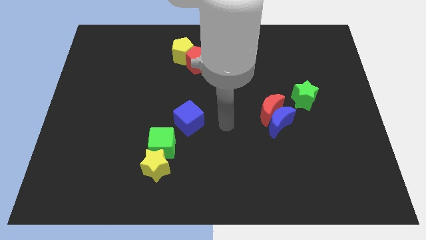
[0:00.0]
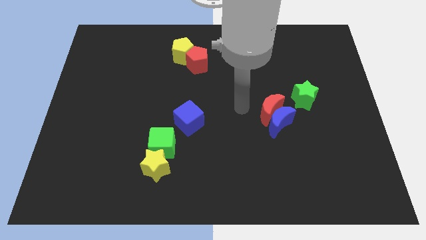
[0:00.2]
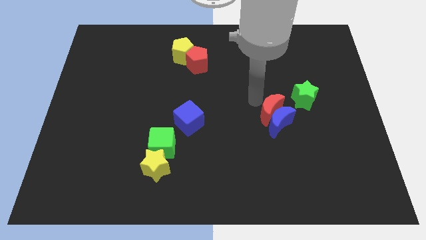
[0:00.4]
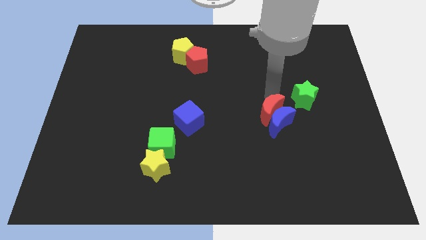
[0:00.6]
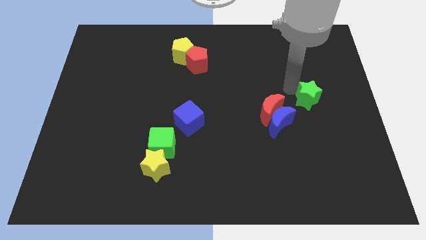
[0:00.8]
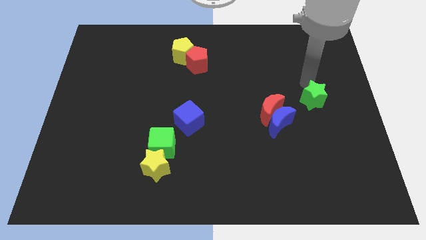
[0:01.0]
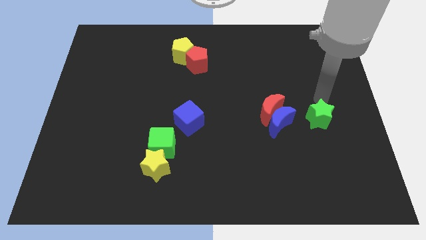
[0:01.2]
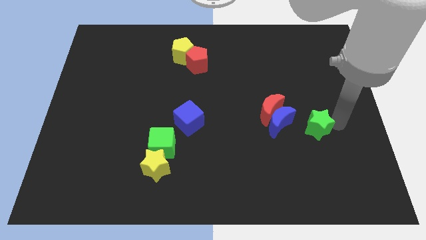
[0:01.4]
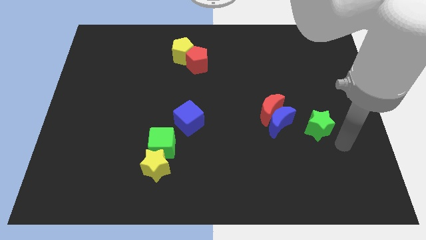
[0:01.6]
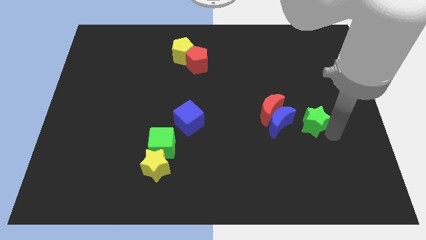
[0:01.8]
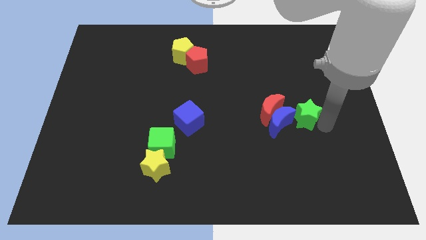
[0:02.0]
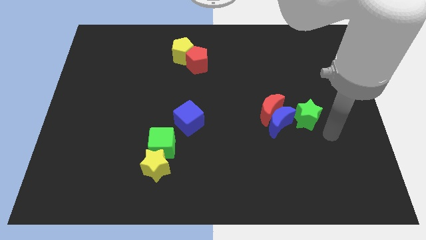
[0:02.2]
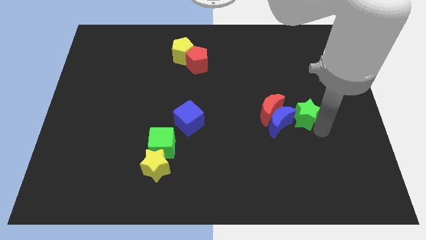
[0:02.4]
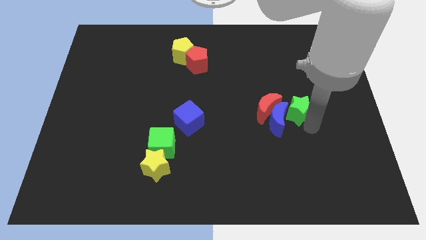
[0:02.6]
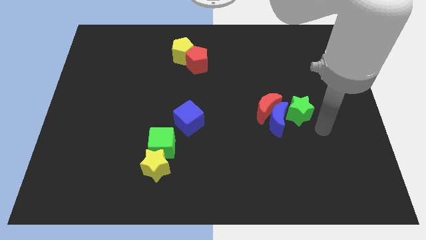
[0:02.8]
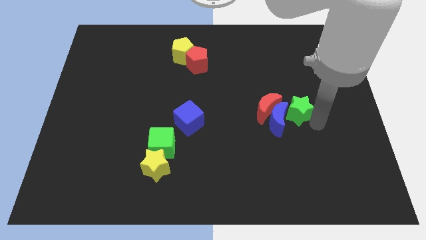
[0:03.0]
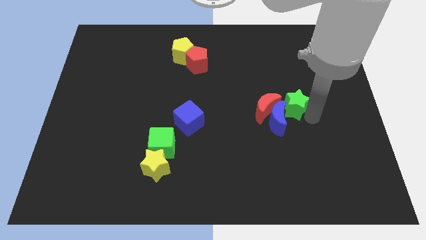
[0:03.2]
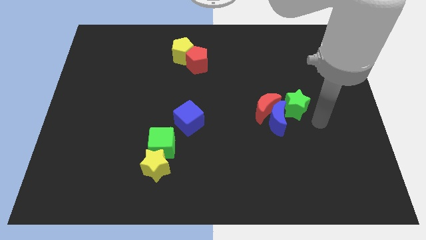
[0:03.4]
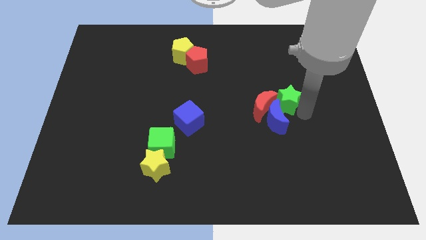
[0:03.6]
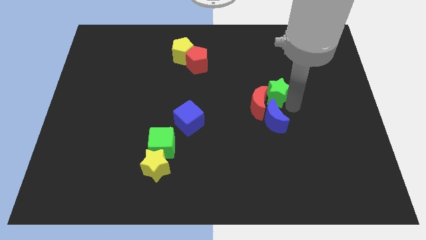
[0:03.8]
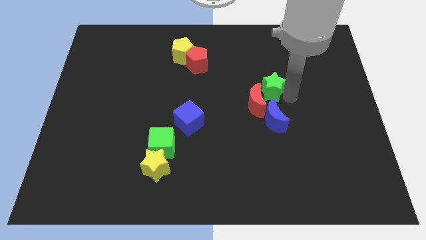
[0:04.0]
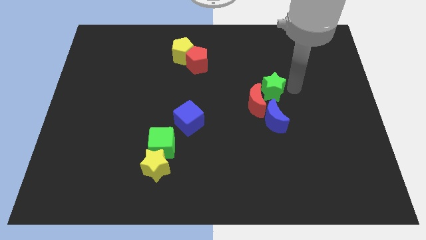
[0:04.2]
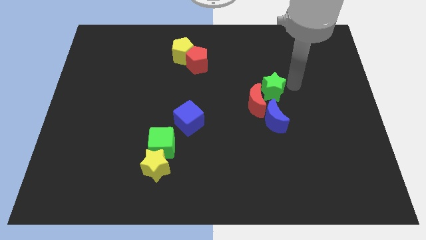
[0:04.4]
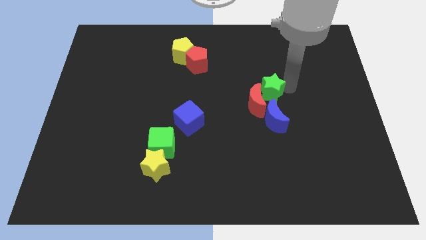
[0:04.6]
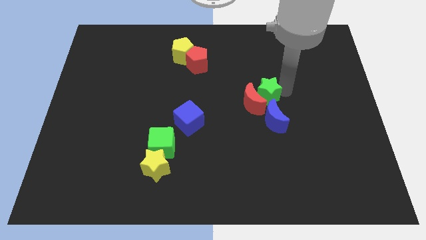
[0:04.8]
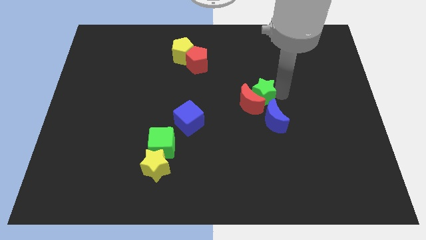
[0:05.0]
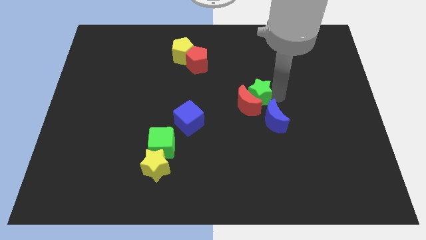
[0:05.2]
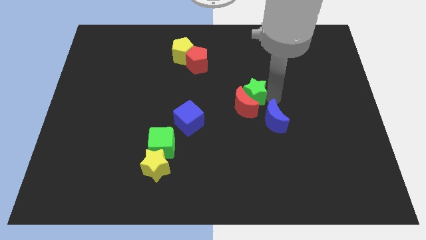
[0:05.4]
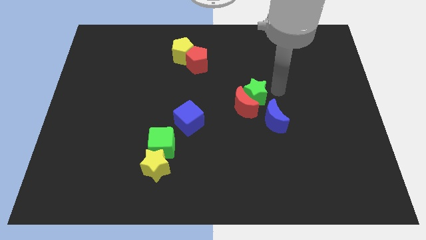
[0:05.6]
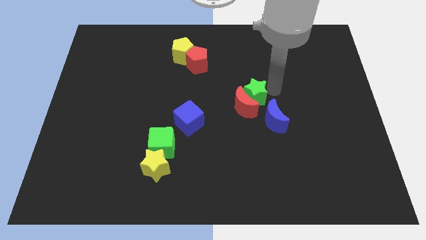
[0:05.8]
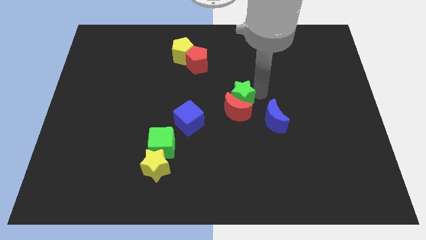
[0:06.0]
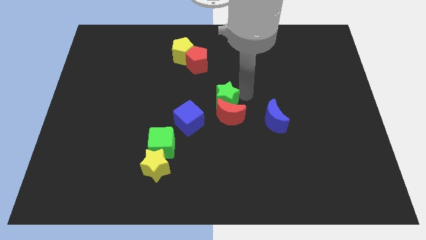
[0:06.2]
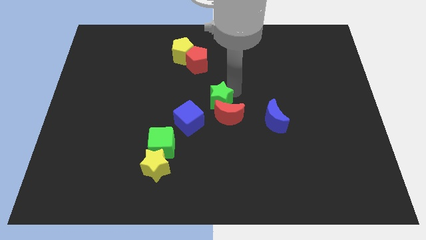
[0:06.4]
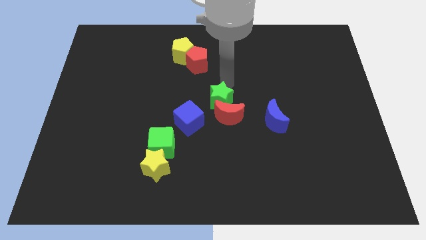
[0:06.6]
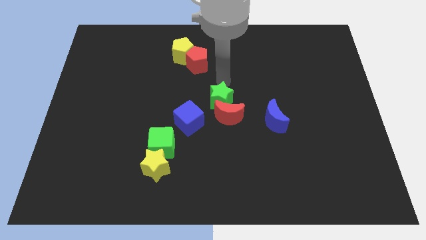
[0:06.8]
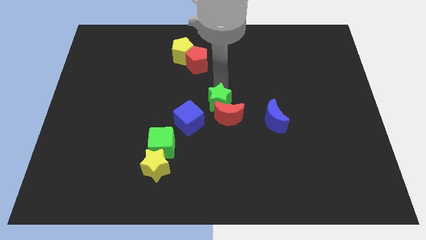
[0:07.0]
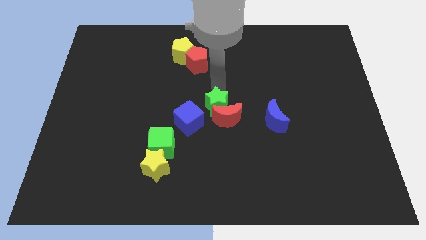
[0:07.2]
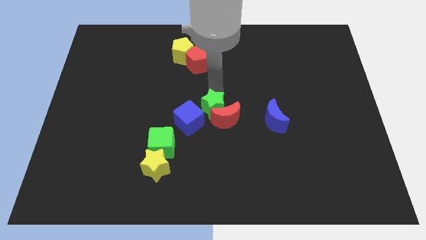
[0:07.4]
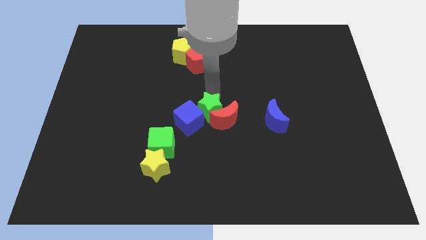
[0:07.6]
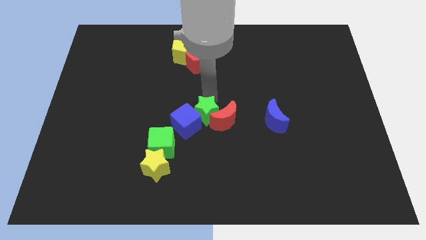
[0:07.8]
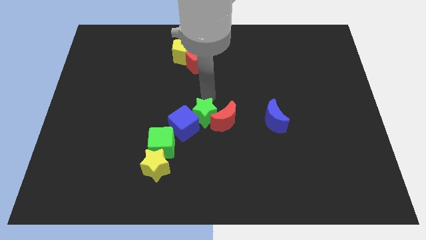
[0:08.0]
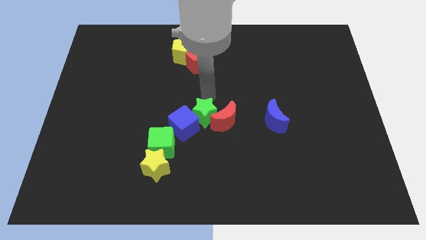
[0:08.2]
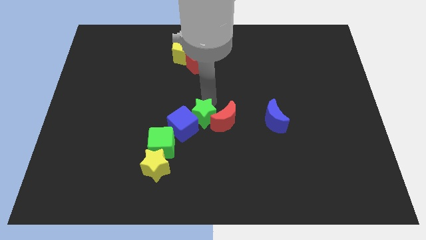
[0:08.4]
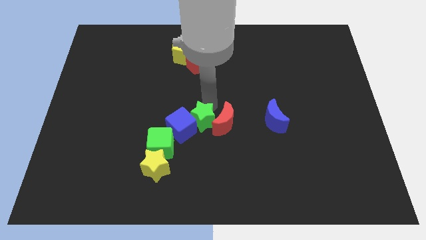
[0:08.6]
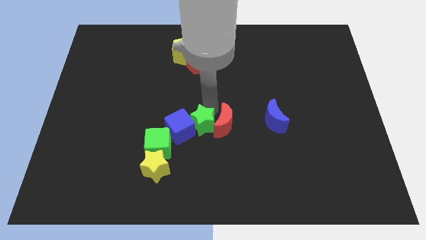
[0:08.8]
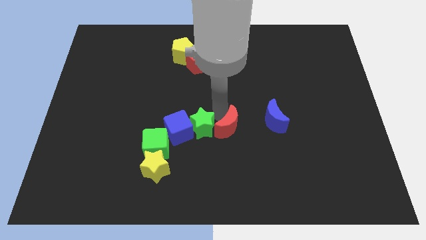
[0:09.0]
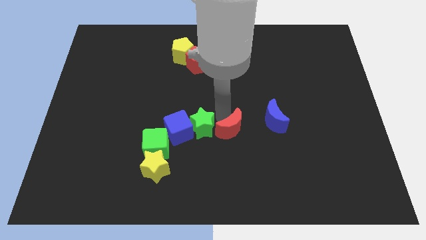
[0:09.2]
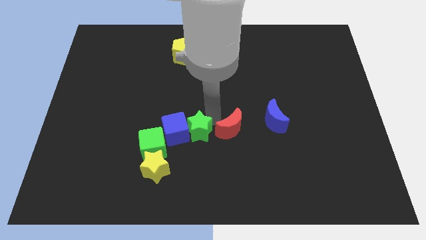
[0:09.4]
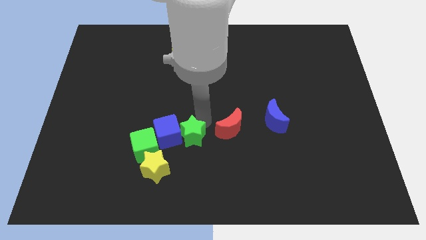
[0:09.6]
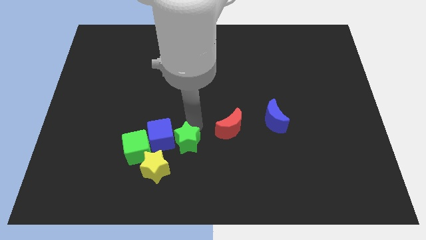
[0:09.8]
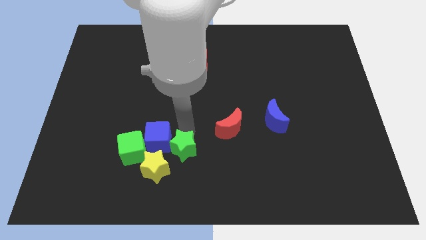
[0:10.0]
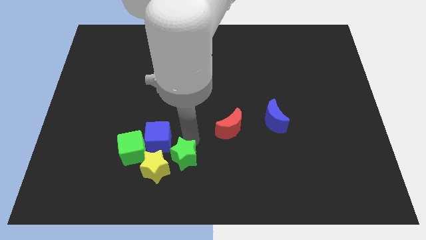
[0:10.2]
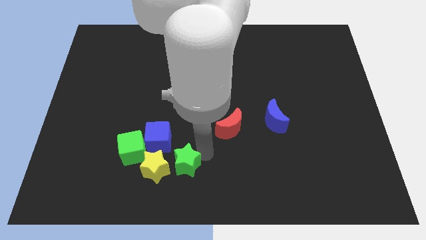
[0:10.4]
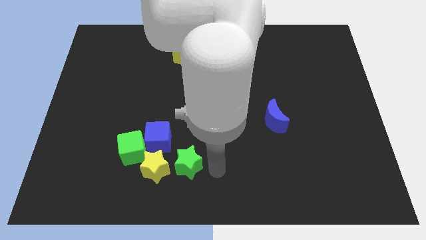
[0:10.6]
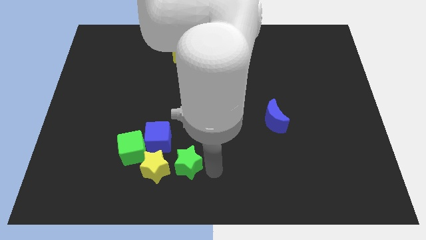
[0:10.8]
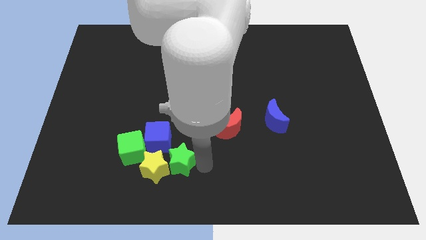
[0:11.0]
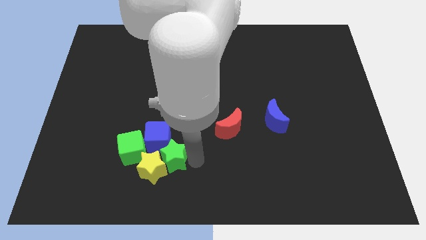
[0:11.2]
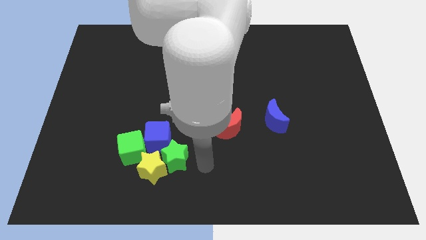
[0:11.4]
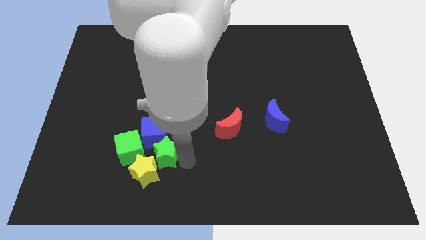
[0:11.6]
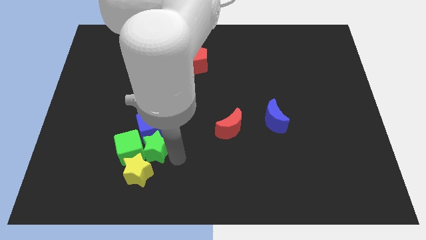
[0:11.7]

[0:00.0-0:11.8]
slide the green star towards the green cube

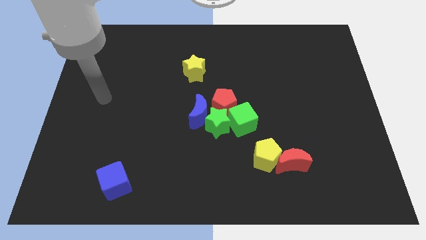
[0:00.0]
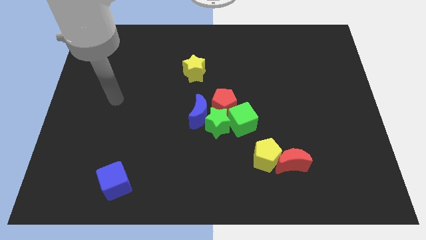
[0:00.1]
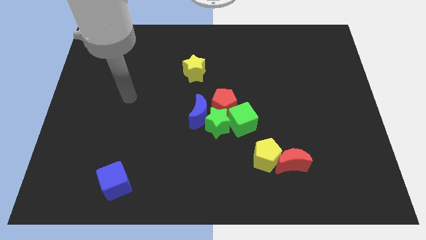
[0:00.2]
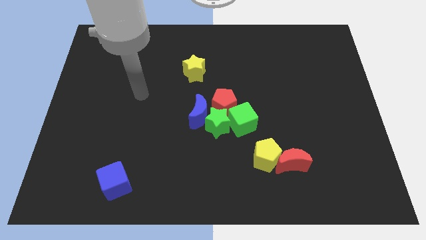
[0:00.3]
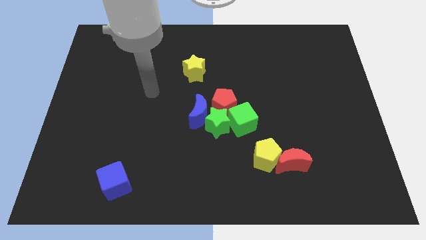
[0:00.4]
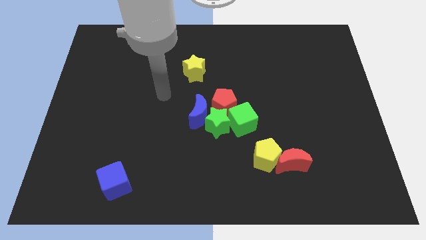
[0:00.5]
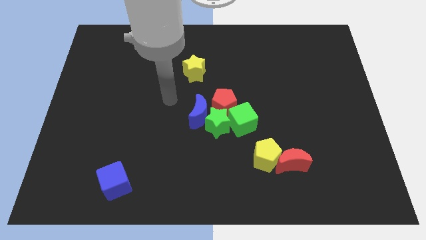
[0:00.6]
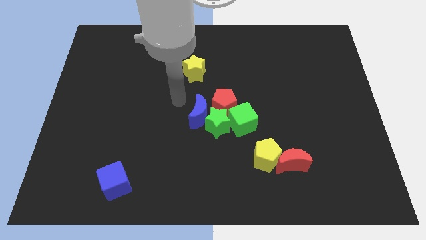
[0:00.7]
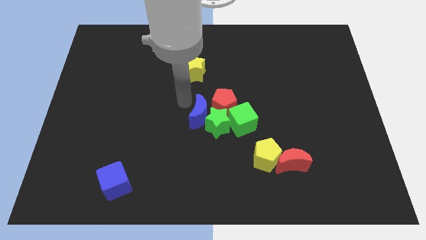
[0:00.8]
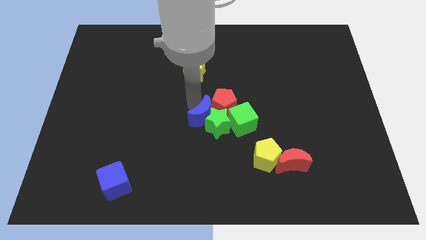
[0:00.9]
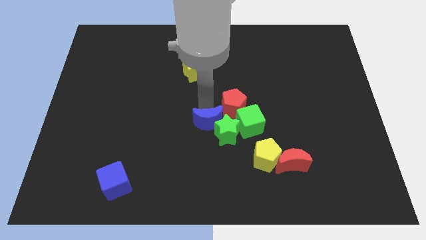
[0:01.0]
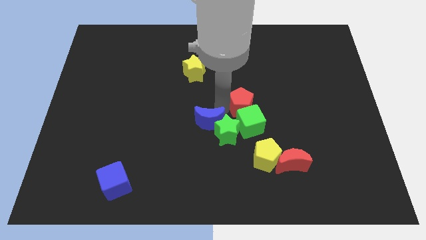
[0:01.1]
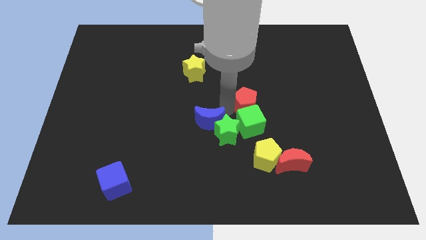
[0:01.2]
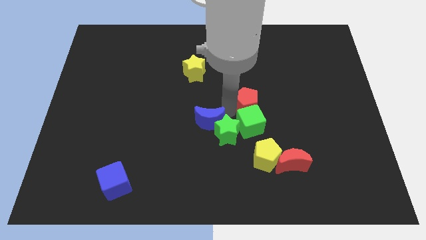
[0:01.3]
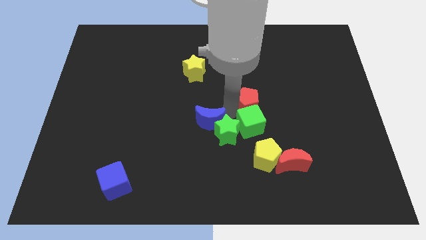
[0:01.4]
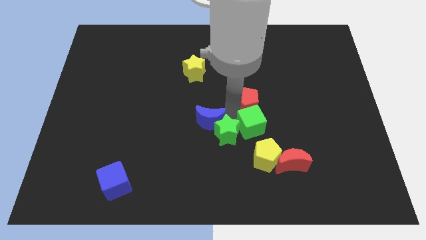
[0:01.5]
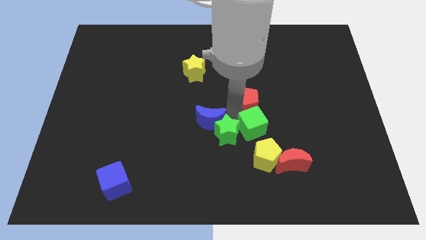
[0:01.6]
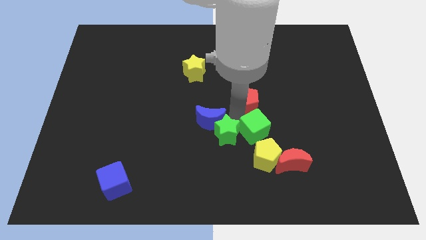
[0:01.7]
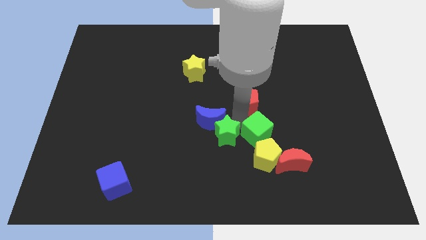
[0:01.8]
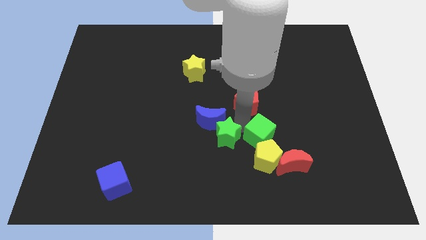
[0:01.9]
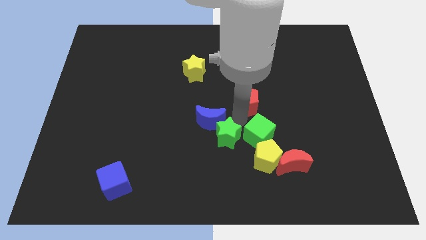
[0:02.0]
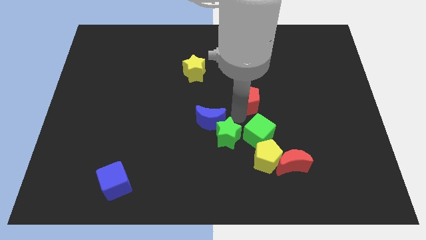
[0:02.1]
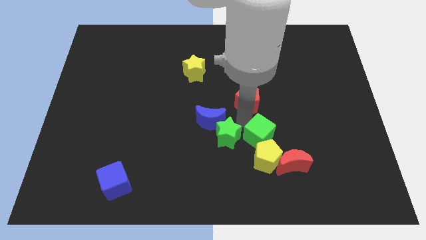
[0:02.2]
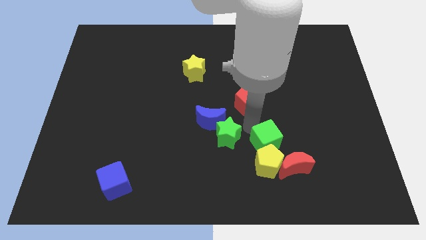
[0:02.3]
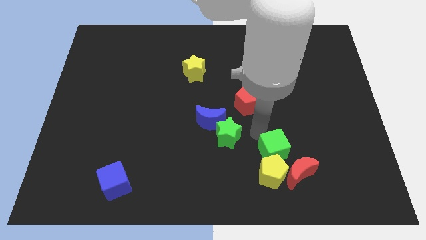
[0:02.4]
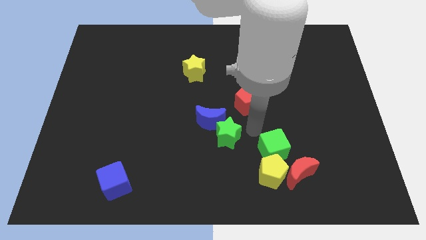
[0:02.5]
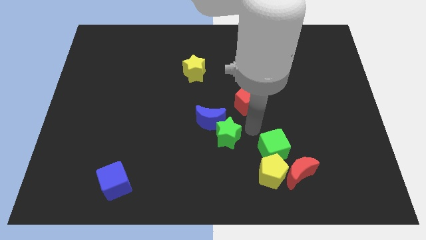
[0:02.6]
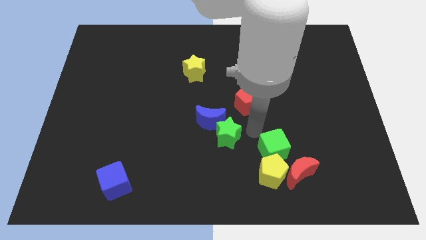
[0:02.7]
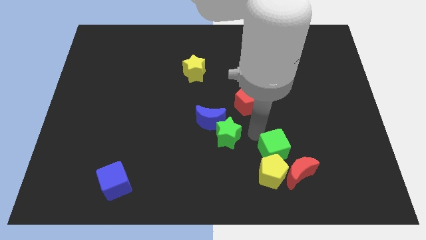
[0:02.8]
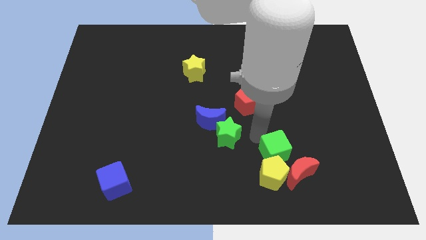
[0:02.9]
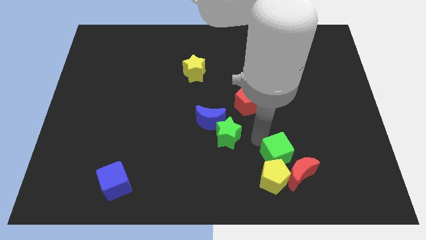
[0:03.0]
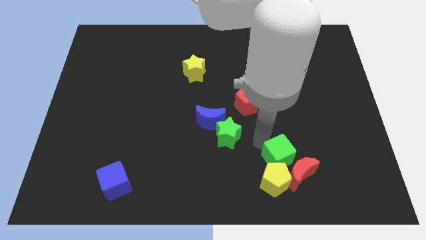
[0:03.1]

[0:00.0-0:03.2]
slide the green cube towards the red moon
